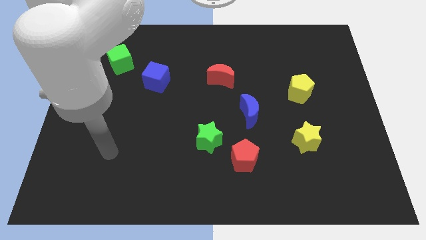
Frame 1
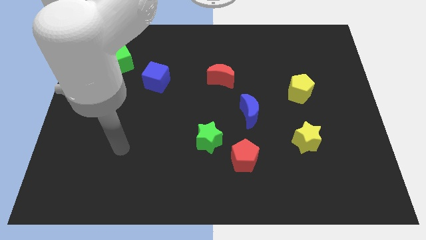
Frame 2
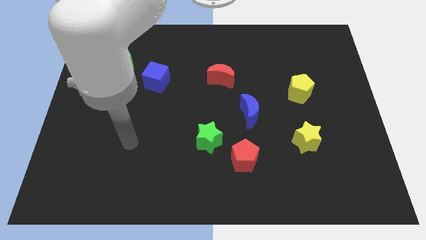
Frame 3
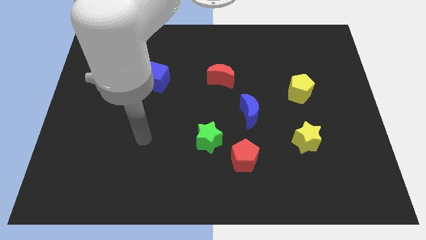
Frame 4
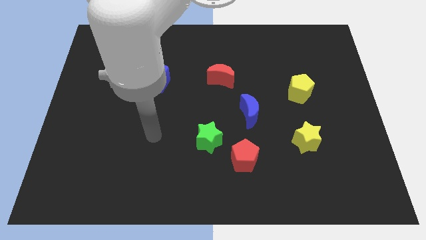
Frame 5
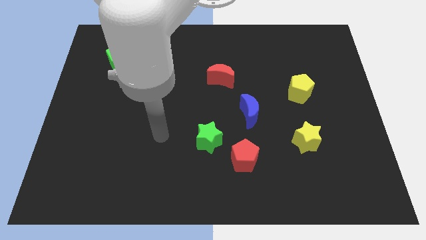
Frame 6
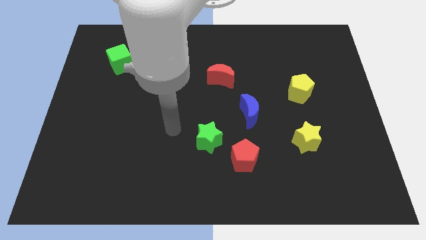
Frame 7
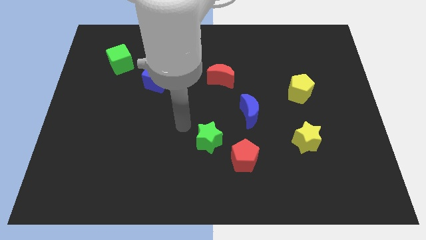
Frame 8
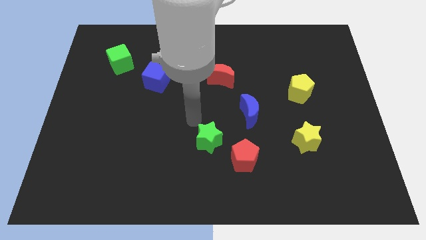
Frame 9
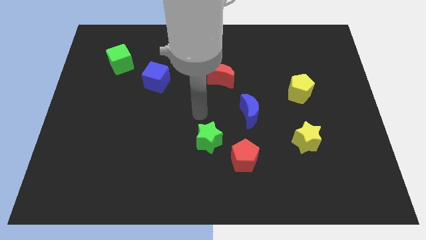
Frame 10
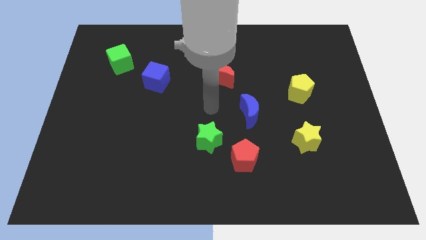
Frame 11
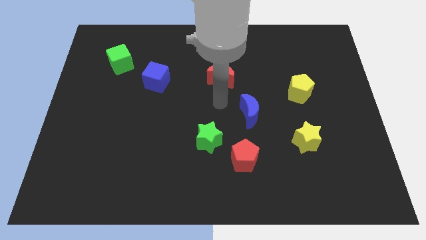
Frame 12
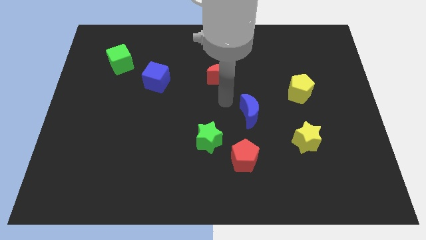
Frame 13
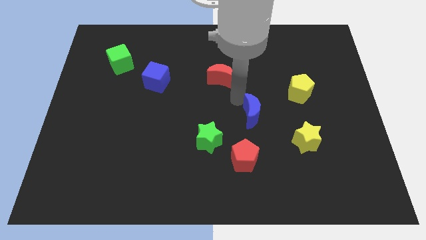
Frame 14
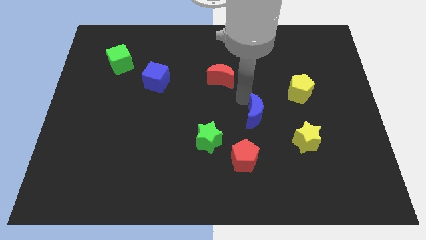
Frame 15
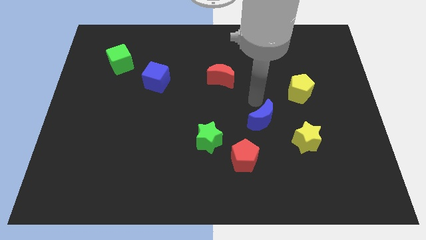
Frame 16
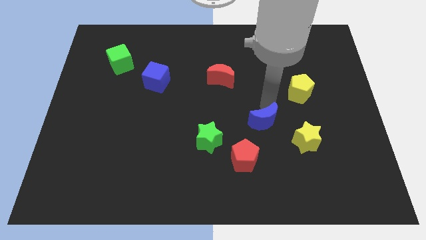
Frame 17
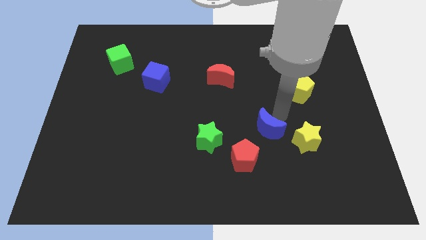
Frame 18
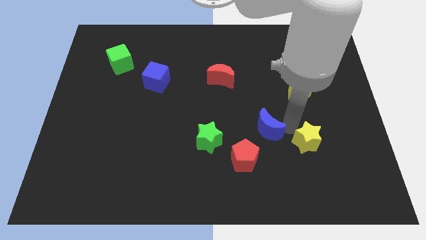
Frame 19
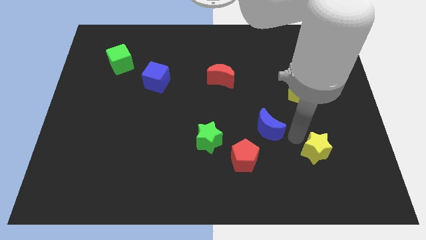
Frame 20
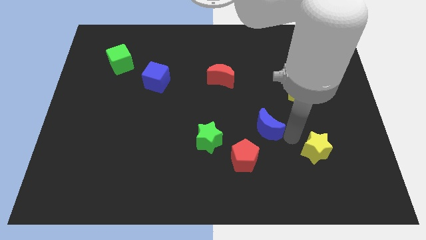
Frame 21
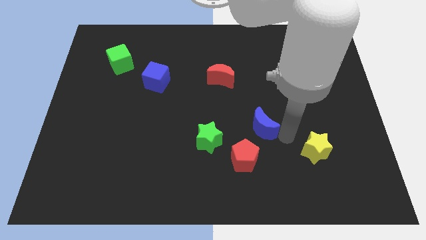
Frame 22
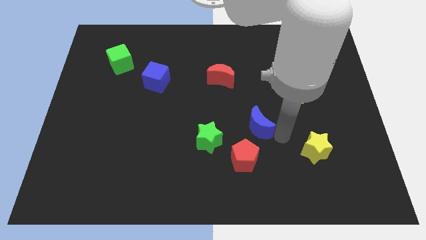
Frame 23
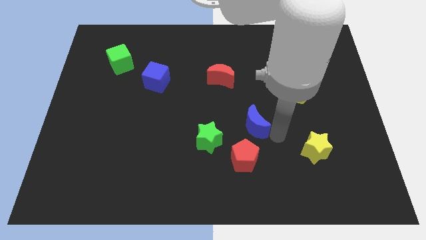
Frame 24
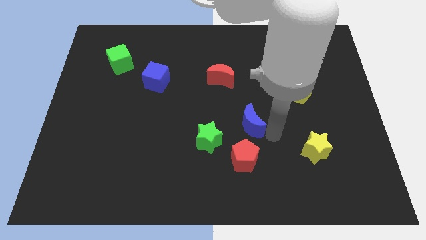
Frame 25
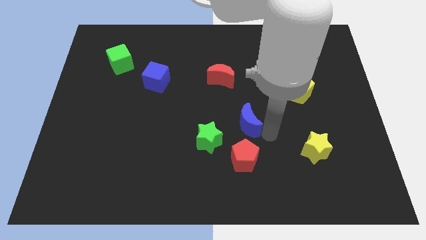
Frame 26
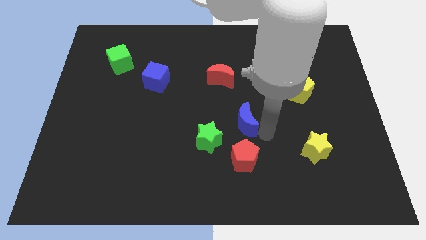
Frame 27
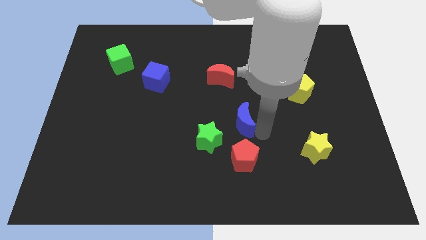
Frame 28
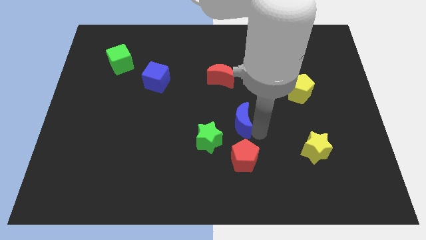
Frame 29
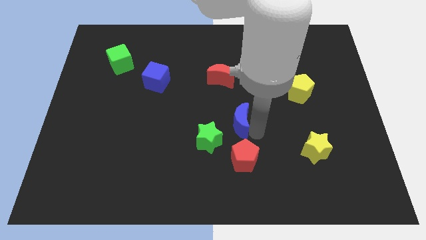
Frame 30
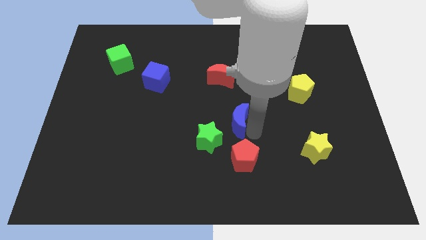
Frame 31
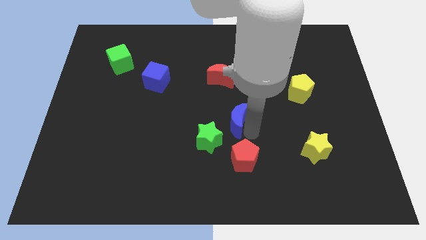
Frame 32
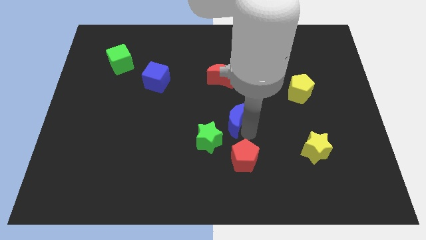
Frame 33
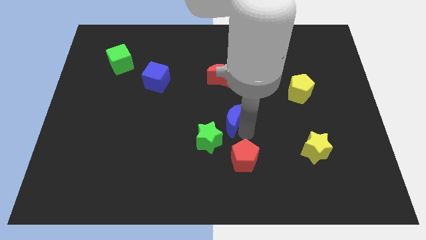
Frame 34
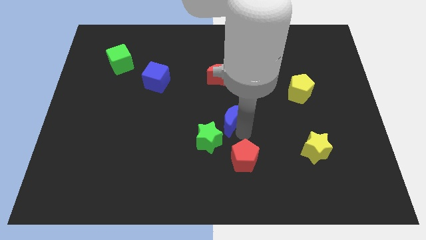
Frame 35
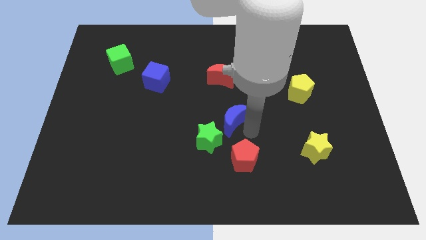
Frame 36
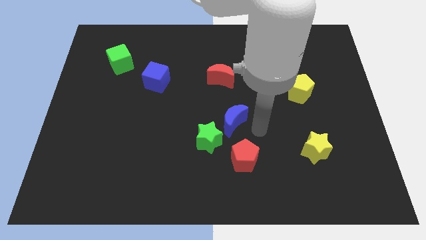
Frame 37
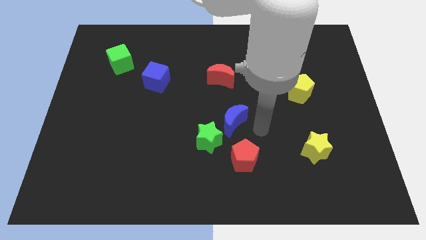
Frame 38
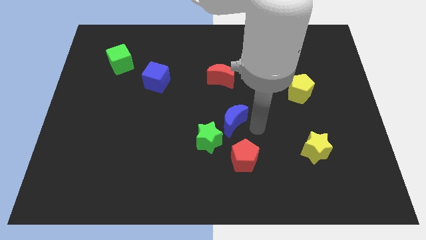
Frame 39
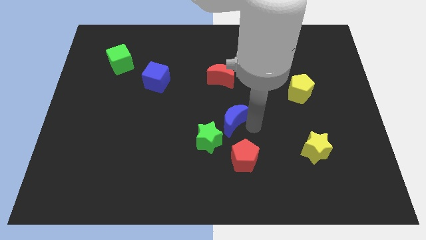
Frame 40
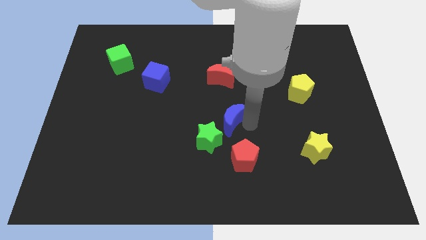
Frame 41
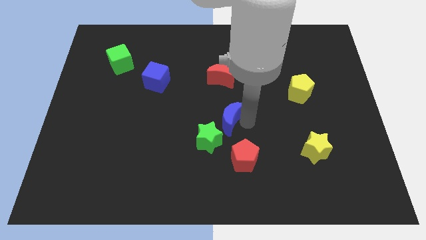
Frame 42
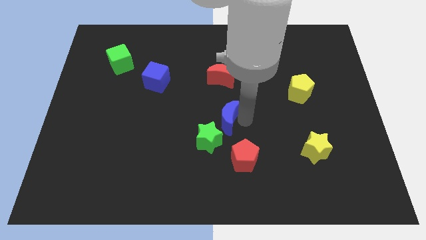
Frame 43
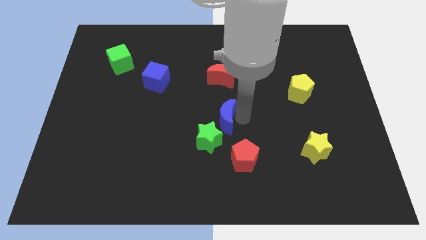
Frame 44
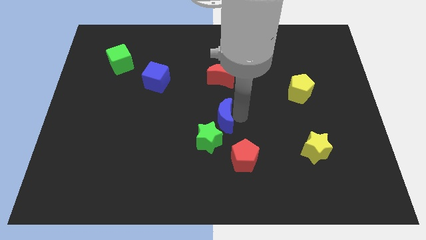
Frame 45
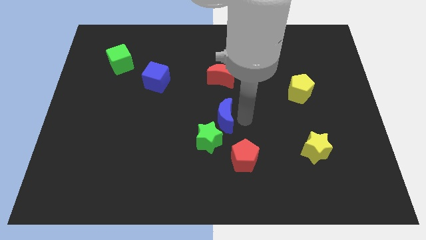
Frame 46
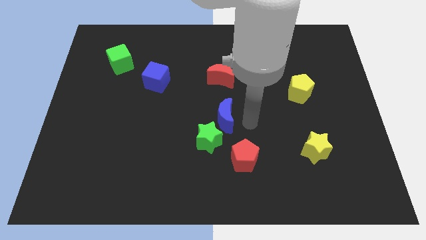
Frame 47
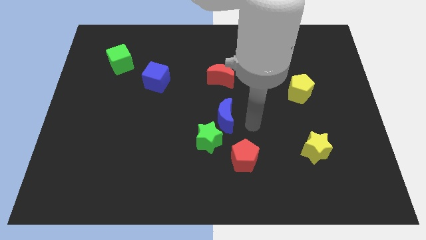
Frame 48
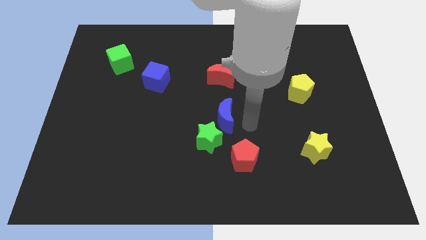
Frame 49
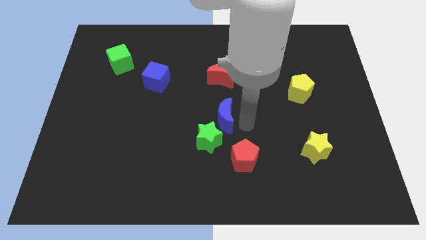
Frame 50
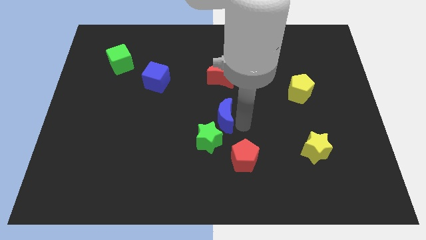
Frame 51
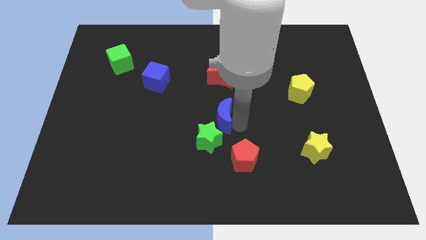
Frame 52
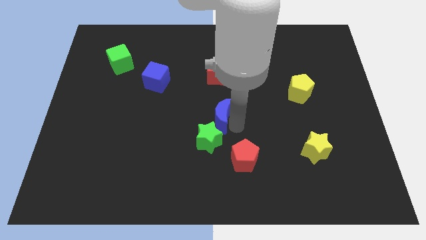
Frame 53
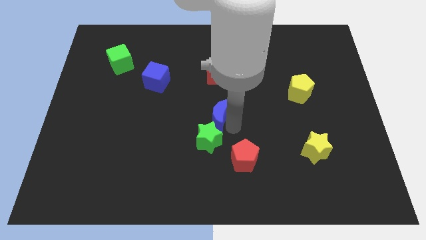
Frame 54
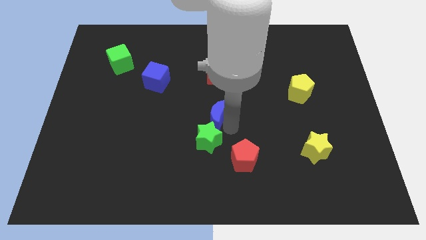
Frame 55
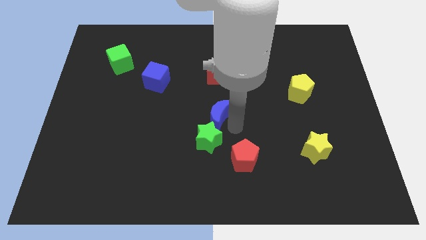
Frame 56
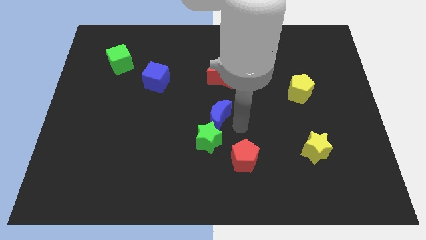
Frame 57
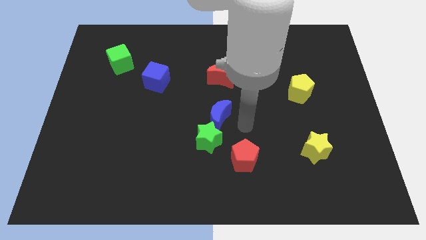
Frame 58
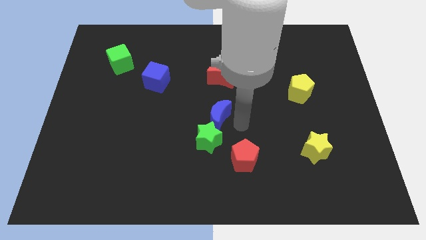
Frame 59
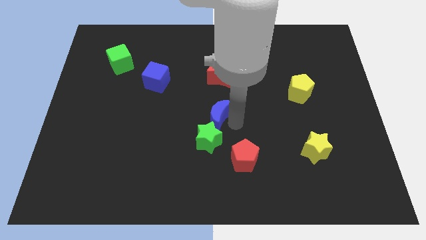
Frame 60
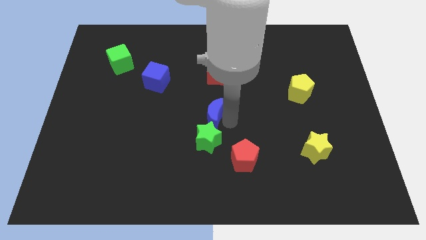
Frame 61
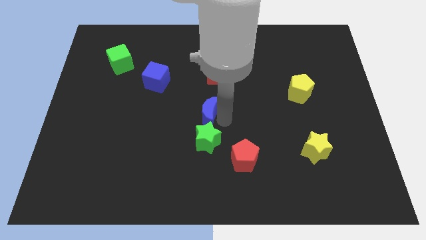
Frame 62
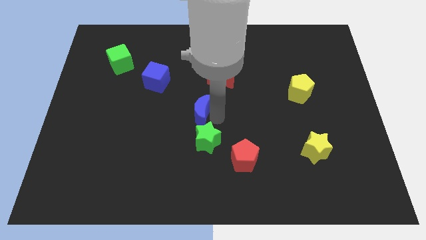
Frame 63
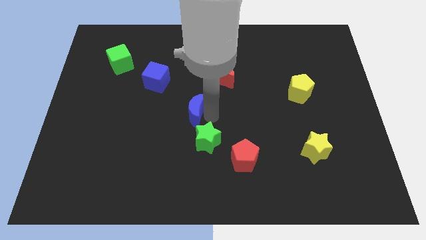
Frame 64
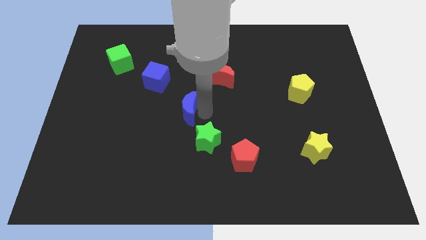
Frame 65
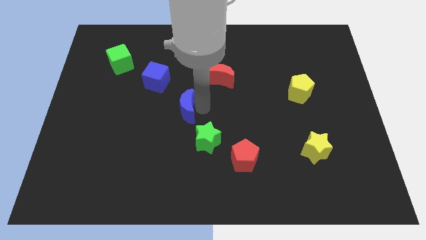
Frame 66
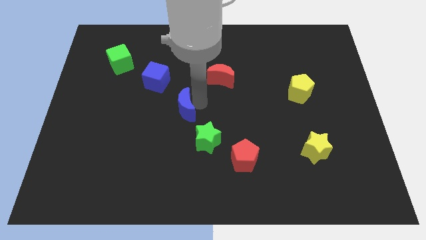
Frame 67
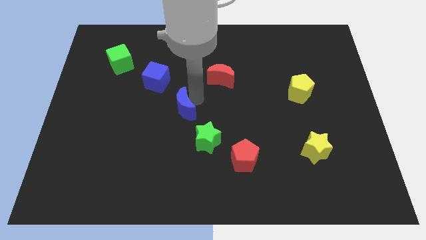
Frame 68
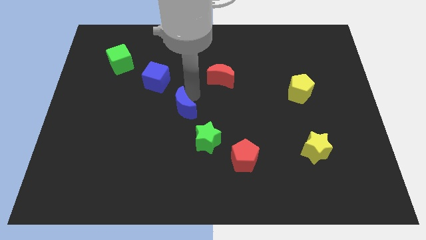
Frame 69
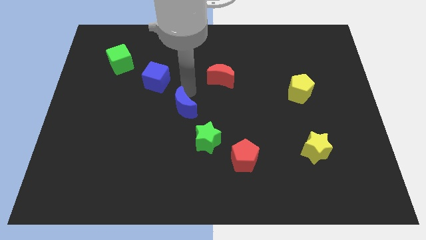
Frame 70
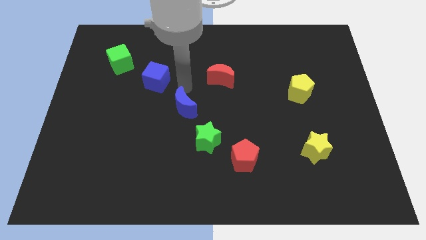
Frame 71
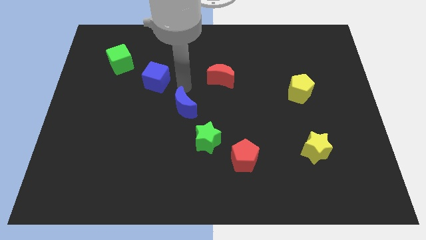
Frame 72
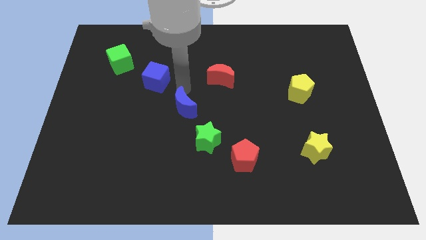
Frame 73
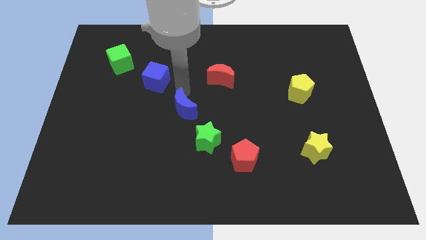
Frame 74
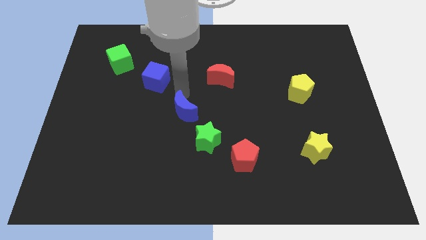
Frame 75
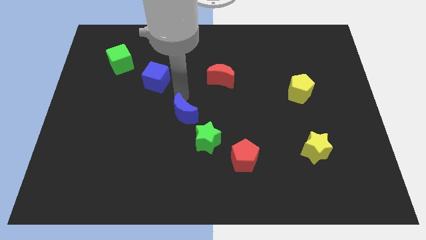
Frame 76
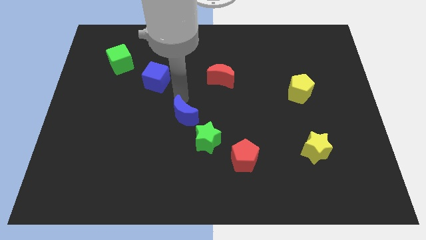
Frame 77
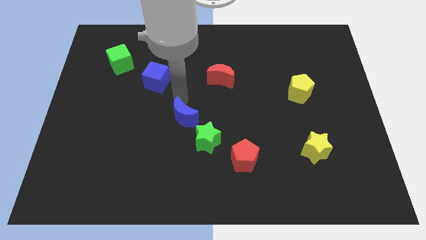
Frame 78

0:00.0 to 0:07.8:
slightly slide the blue moon down and to the left diagonally
